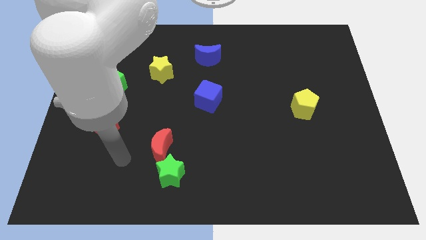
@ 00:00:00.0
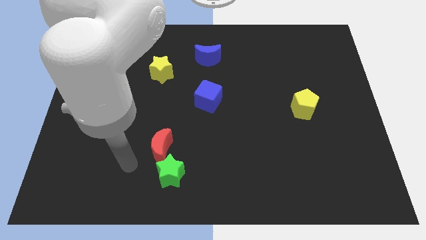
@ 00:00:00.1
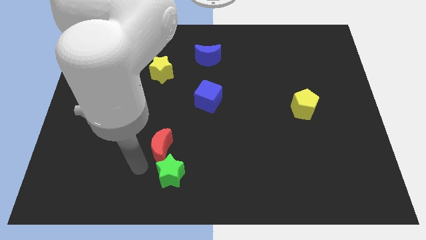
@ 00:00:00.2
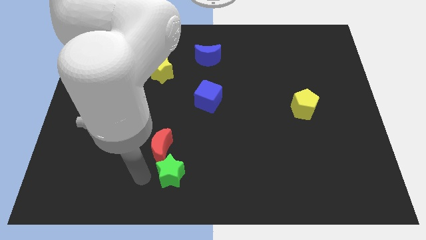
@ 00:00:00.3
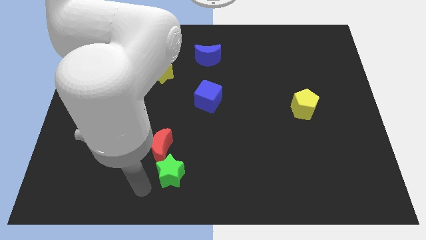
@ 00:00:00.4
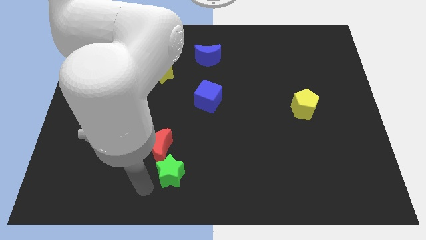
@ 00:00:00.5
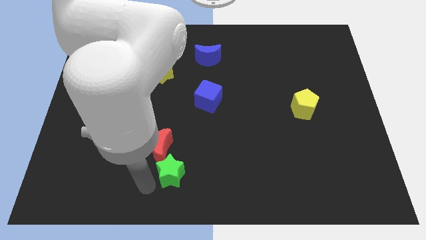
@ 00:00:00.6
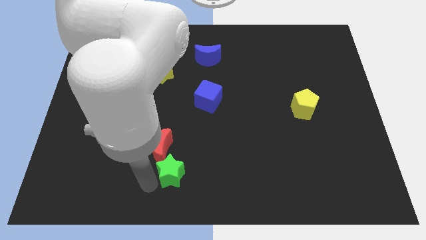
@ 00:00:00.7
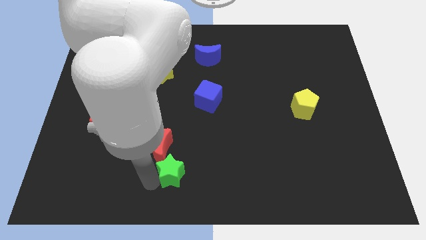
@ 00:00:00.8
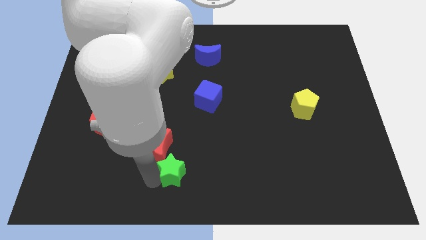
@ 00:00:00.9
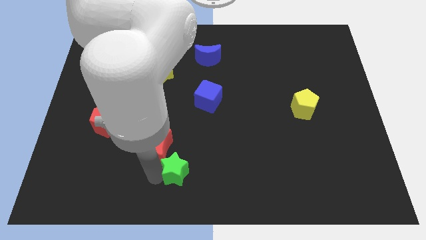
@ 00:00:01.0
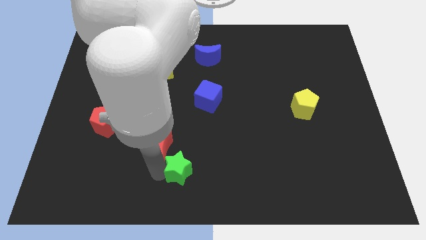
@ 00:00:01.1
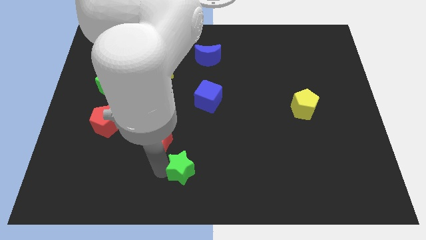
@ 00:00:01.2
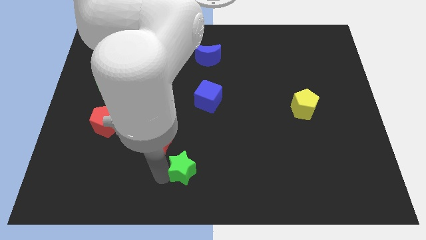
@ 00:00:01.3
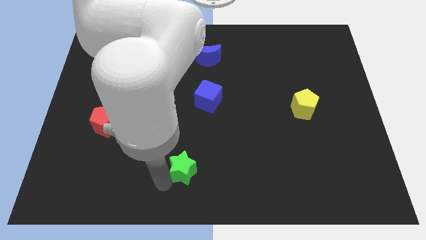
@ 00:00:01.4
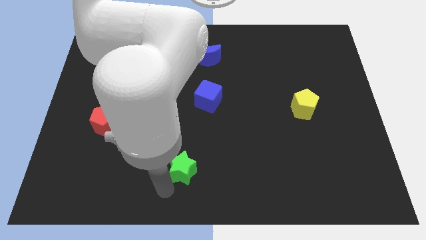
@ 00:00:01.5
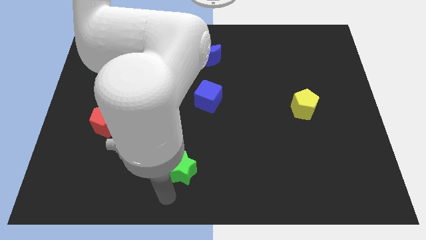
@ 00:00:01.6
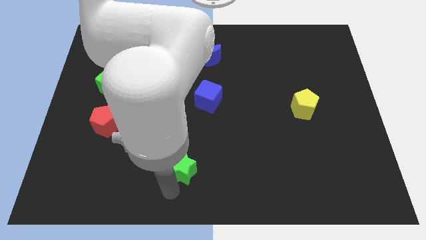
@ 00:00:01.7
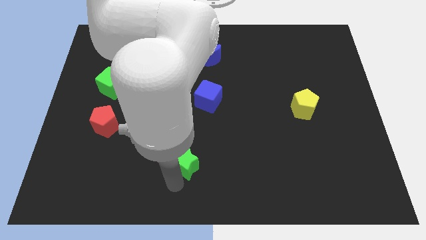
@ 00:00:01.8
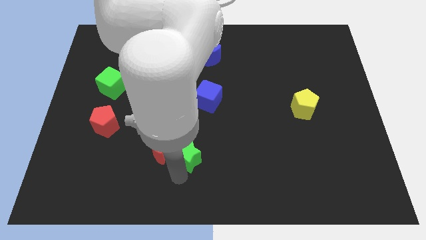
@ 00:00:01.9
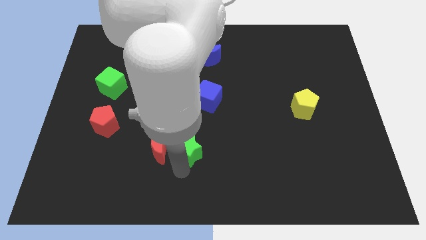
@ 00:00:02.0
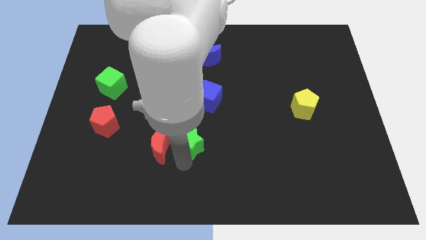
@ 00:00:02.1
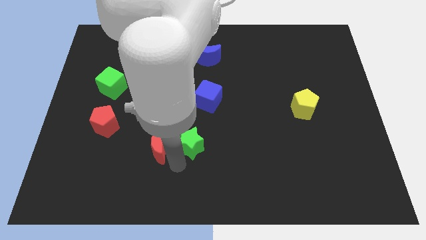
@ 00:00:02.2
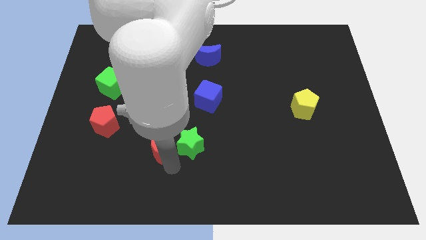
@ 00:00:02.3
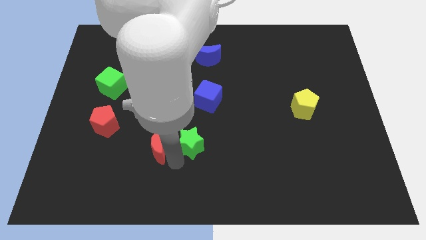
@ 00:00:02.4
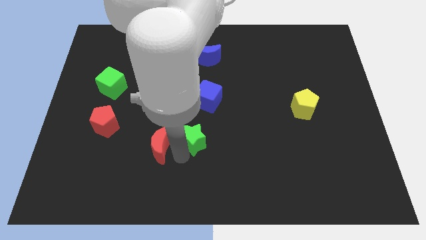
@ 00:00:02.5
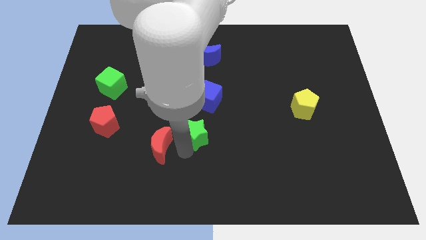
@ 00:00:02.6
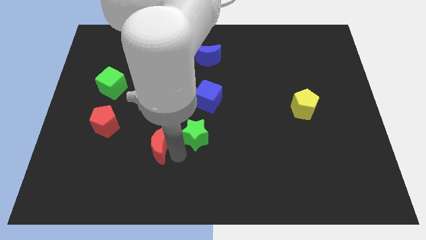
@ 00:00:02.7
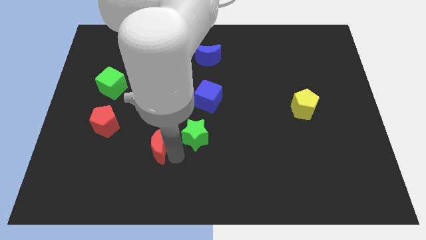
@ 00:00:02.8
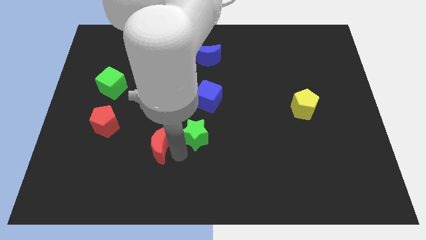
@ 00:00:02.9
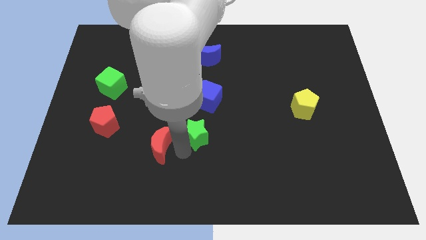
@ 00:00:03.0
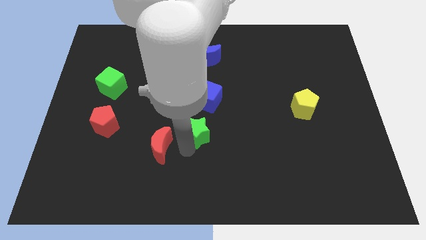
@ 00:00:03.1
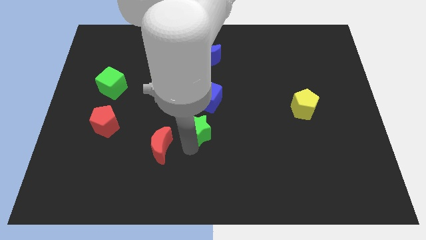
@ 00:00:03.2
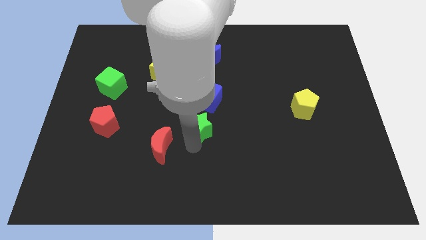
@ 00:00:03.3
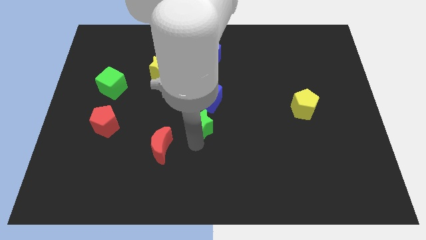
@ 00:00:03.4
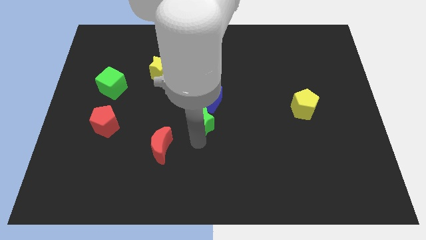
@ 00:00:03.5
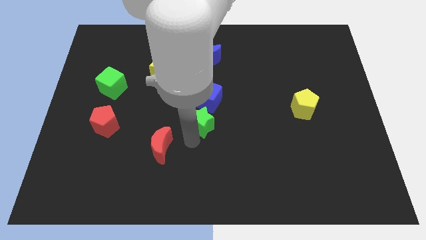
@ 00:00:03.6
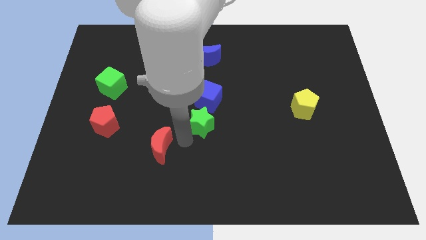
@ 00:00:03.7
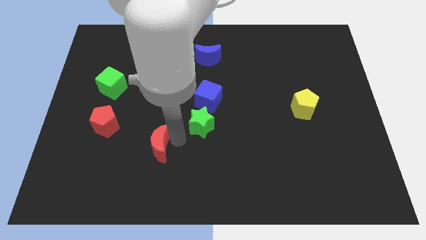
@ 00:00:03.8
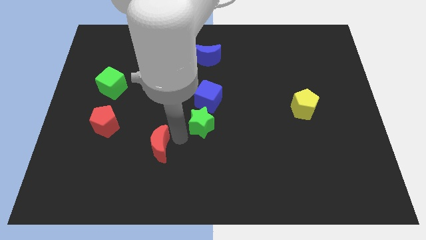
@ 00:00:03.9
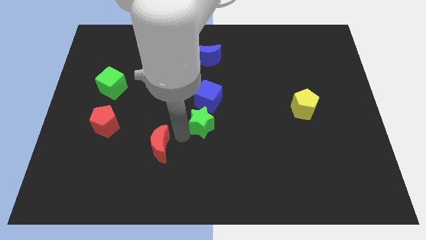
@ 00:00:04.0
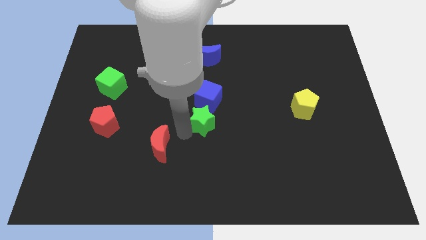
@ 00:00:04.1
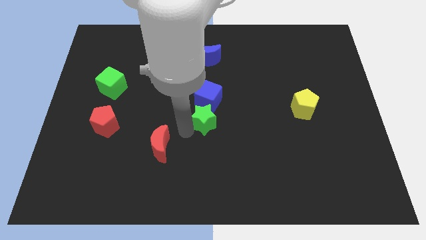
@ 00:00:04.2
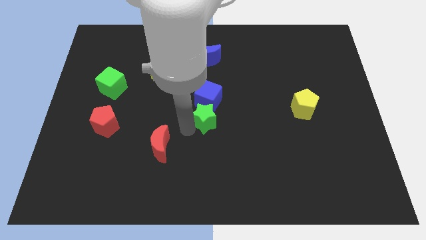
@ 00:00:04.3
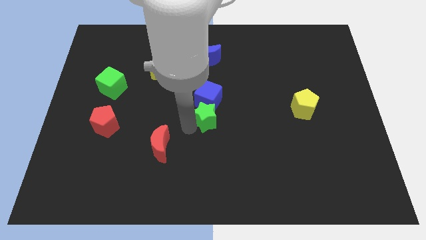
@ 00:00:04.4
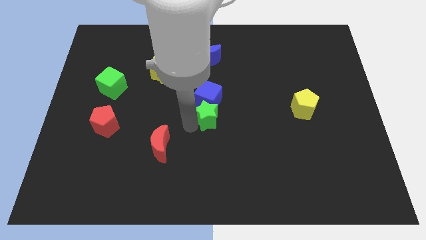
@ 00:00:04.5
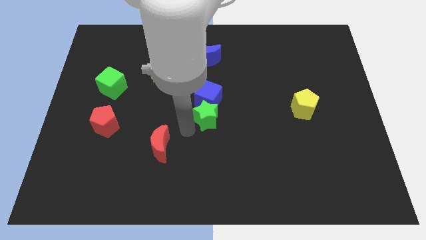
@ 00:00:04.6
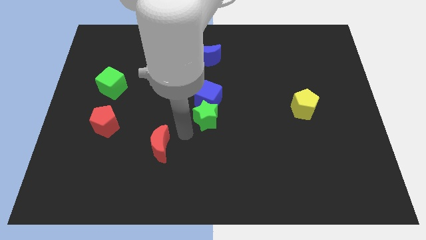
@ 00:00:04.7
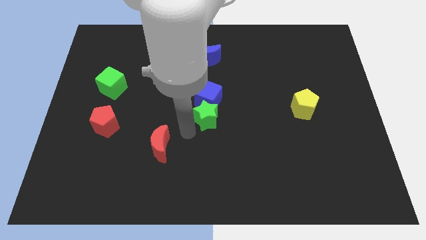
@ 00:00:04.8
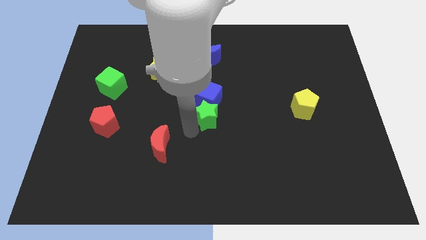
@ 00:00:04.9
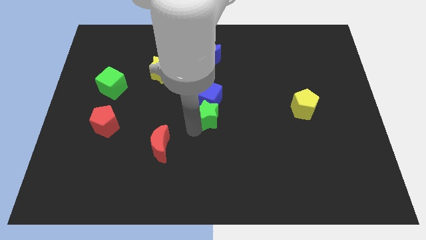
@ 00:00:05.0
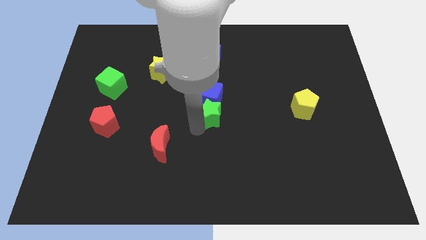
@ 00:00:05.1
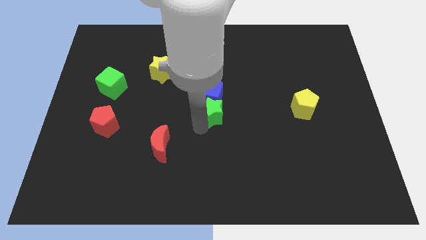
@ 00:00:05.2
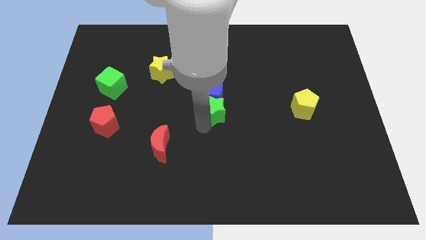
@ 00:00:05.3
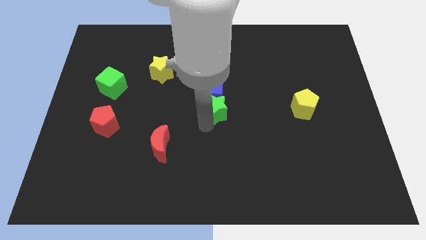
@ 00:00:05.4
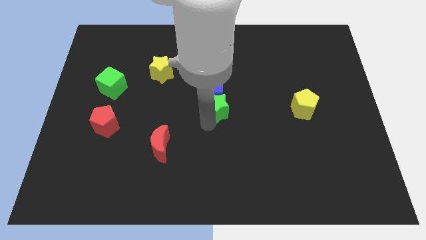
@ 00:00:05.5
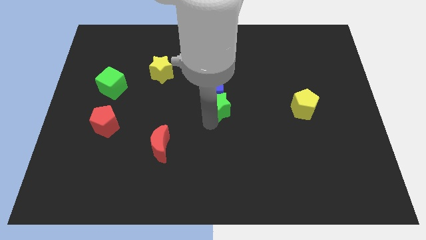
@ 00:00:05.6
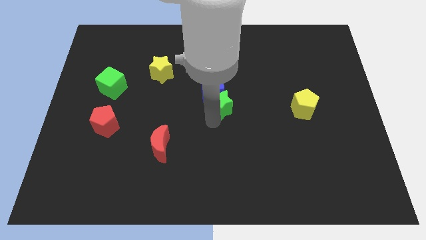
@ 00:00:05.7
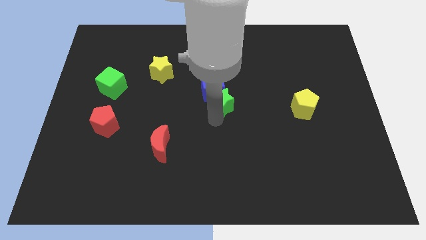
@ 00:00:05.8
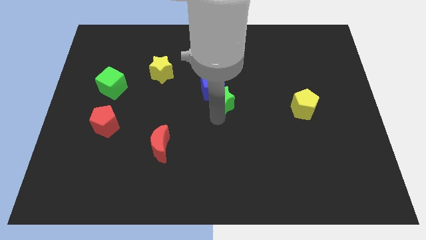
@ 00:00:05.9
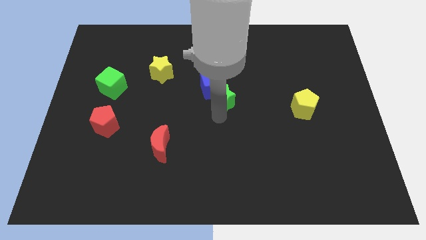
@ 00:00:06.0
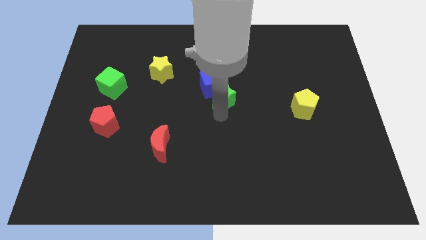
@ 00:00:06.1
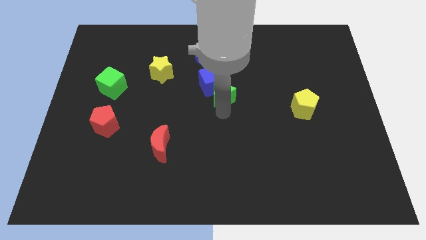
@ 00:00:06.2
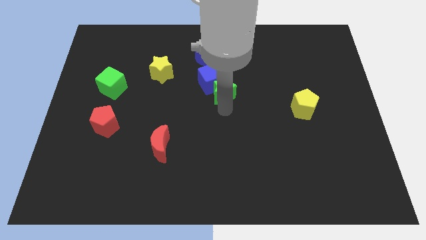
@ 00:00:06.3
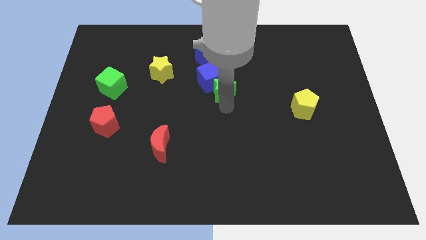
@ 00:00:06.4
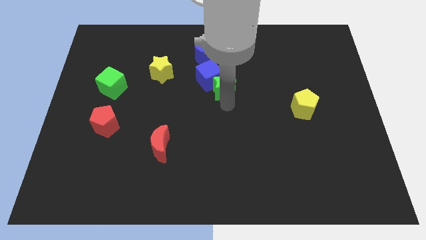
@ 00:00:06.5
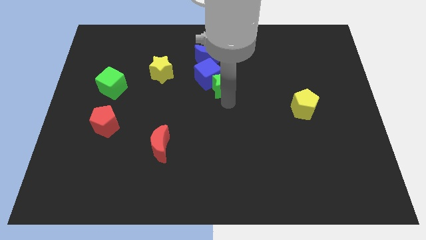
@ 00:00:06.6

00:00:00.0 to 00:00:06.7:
push the green star diagonally down and to the right of the blue moon
